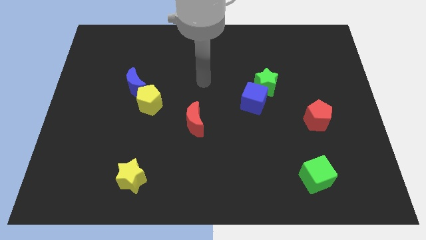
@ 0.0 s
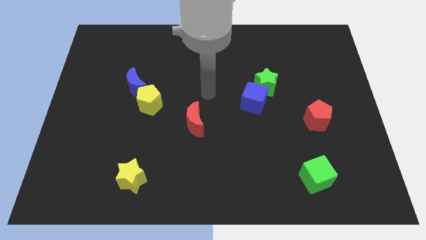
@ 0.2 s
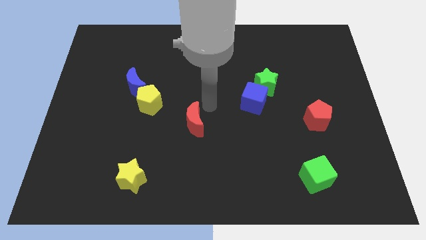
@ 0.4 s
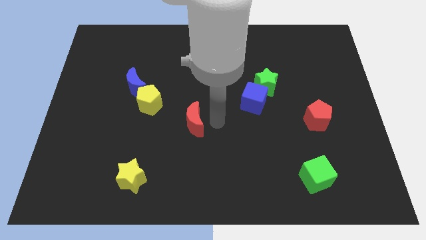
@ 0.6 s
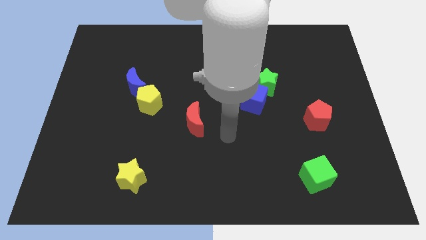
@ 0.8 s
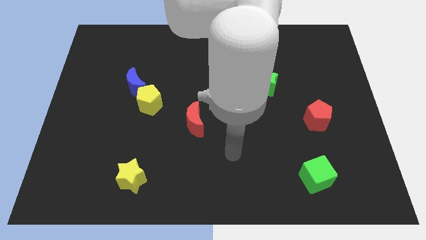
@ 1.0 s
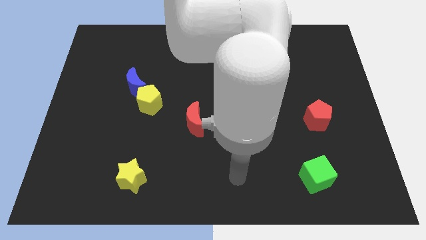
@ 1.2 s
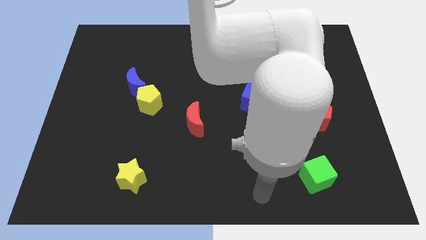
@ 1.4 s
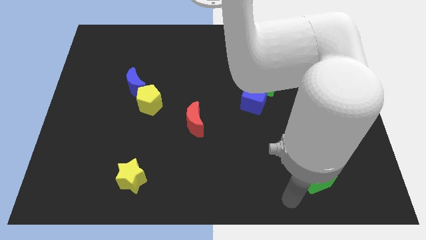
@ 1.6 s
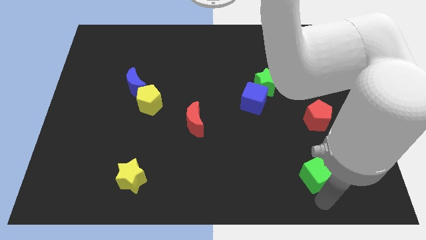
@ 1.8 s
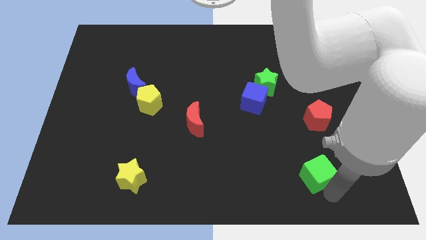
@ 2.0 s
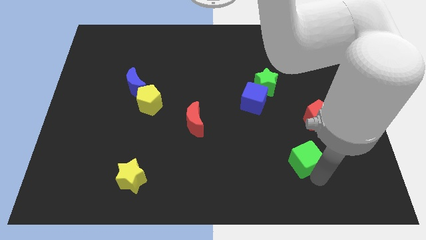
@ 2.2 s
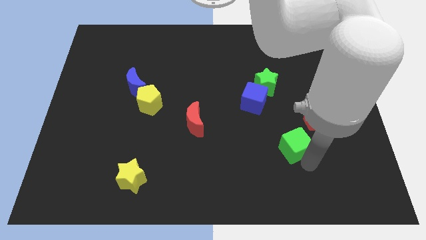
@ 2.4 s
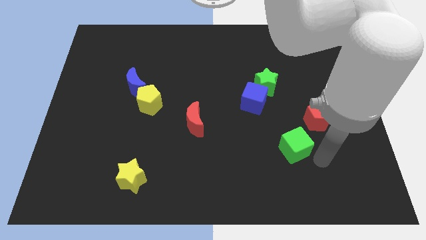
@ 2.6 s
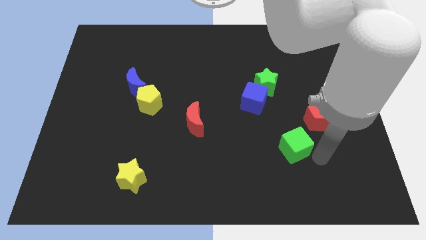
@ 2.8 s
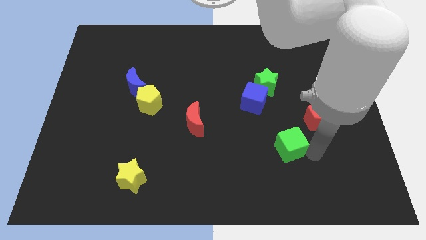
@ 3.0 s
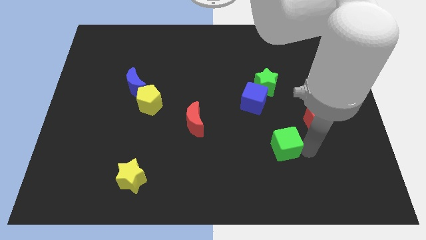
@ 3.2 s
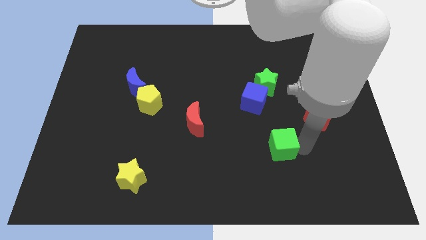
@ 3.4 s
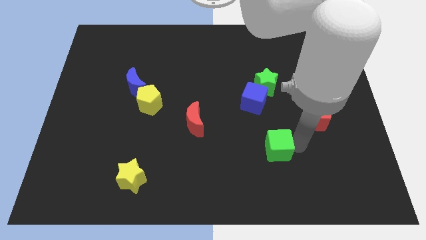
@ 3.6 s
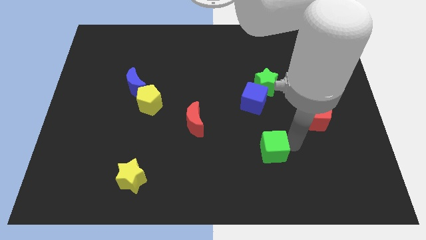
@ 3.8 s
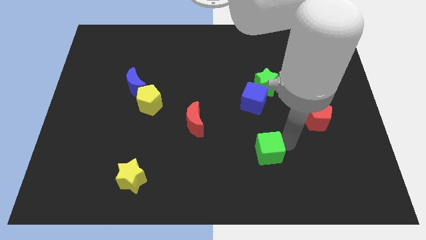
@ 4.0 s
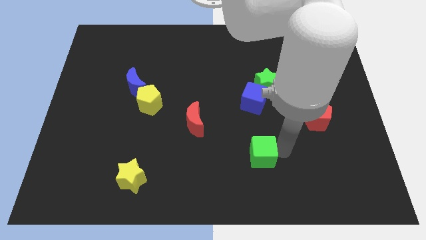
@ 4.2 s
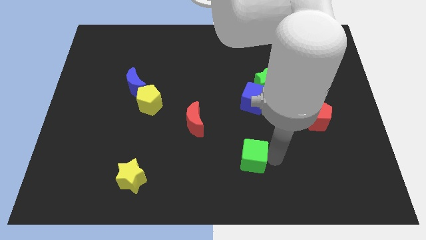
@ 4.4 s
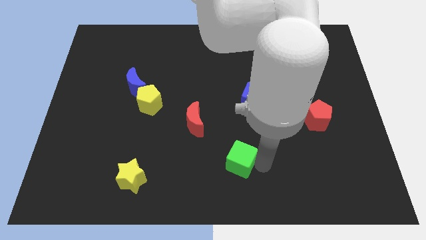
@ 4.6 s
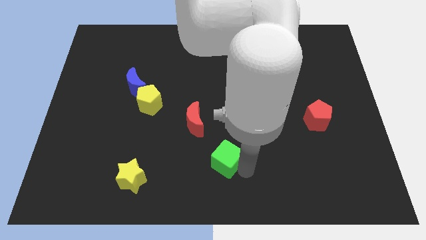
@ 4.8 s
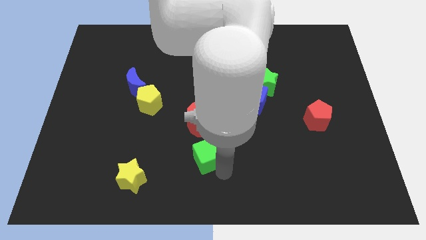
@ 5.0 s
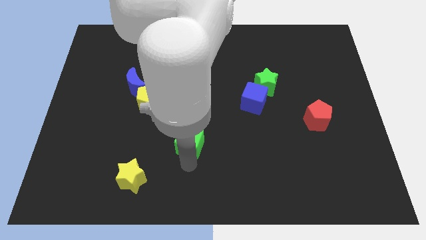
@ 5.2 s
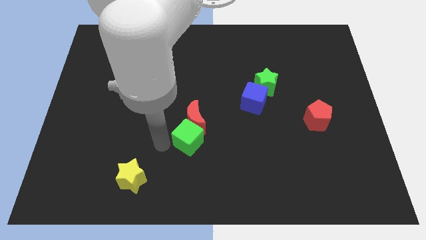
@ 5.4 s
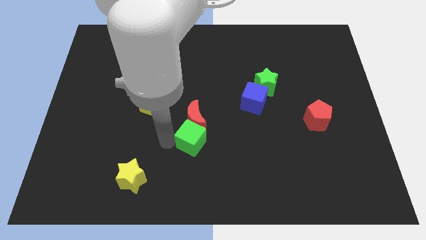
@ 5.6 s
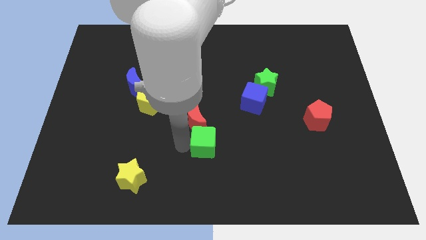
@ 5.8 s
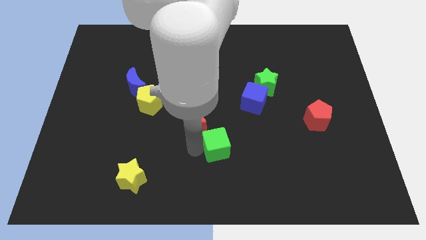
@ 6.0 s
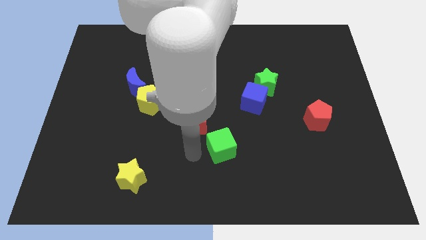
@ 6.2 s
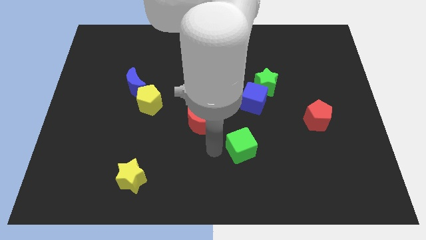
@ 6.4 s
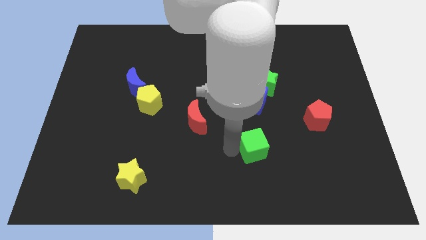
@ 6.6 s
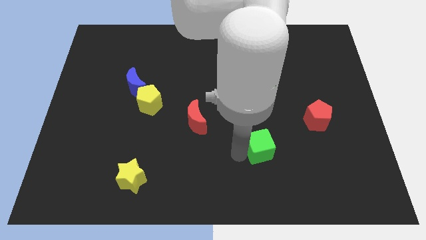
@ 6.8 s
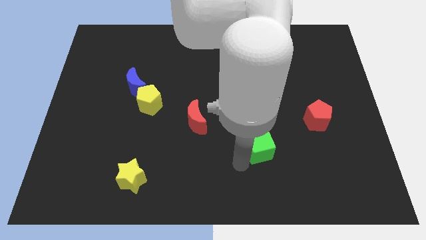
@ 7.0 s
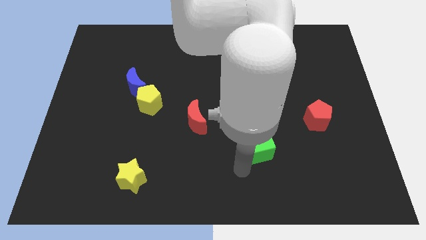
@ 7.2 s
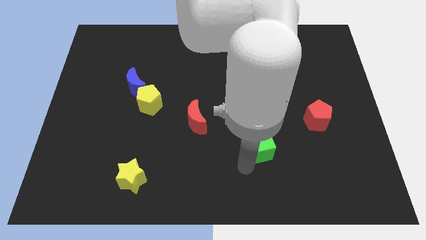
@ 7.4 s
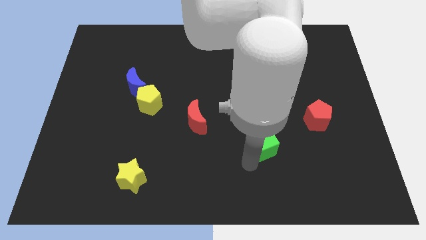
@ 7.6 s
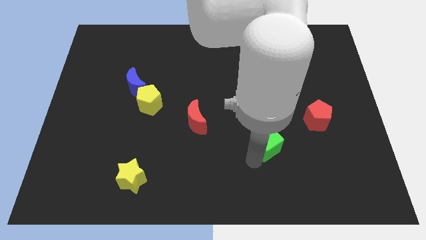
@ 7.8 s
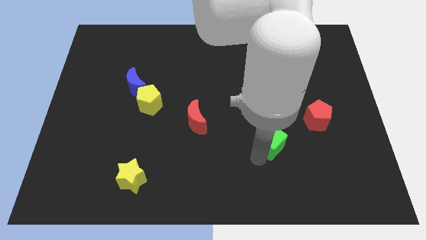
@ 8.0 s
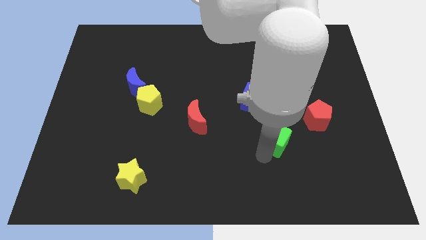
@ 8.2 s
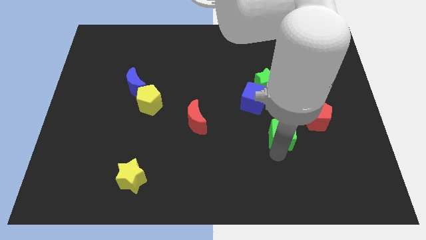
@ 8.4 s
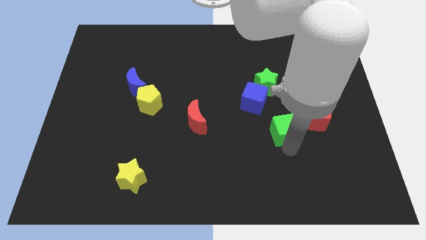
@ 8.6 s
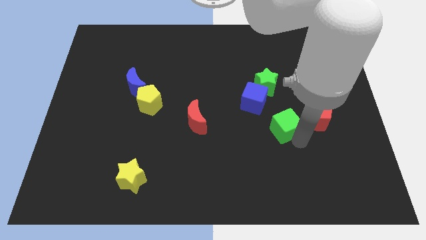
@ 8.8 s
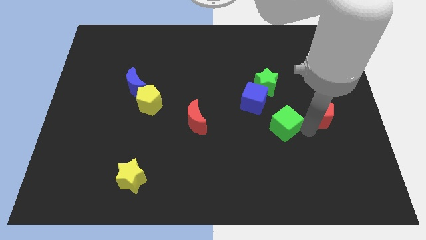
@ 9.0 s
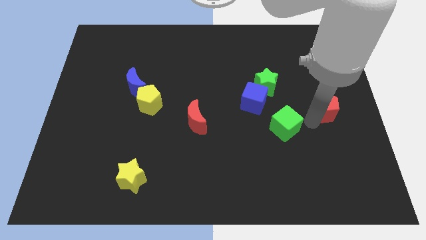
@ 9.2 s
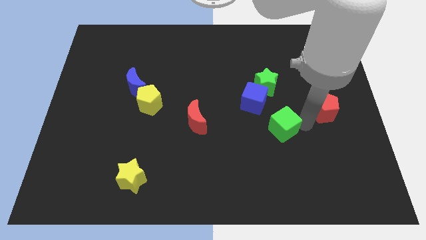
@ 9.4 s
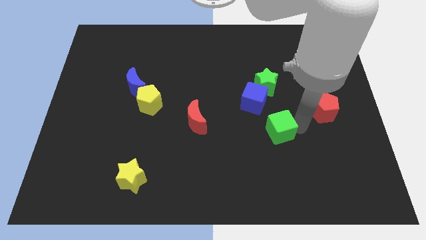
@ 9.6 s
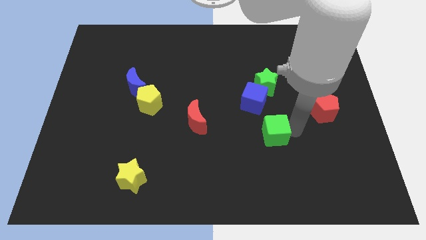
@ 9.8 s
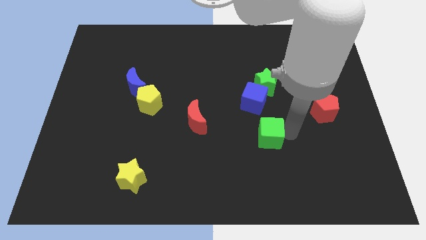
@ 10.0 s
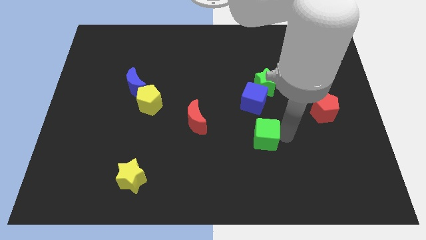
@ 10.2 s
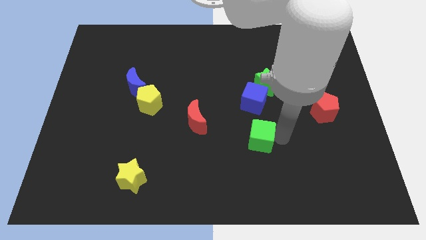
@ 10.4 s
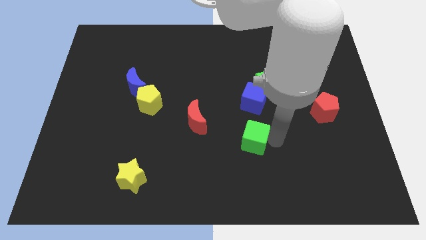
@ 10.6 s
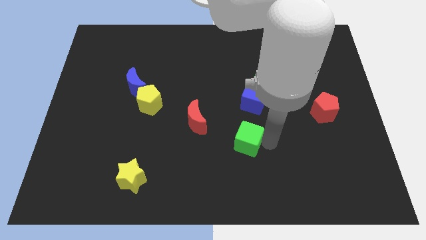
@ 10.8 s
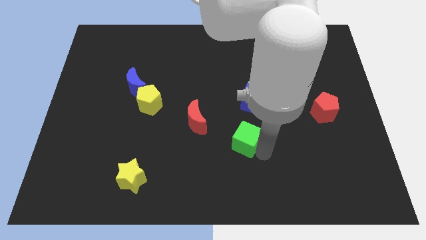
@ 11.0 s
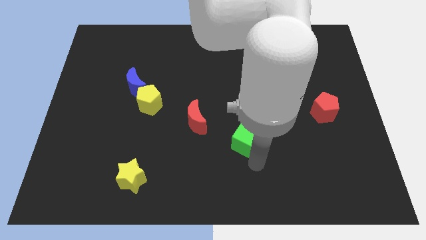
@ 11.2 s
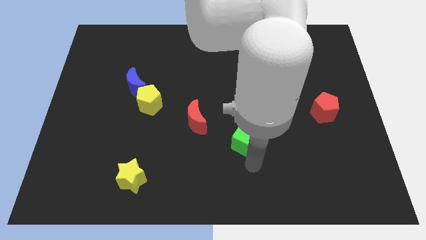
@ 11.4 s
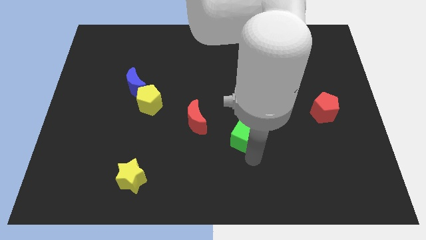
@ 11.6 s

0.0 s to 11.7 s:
put the green cube right of the red moon

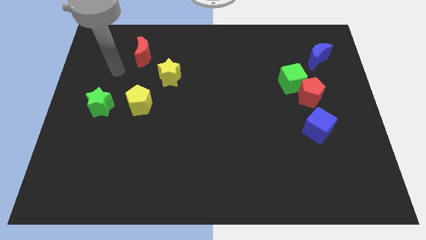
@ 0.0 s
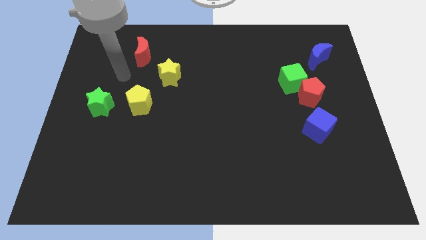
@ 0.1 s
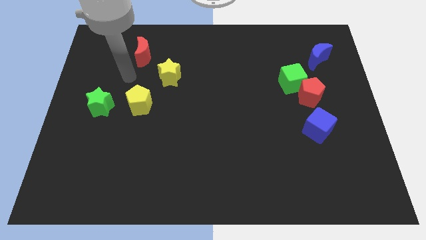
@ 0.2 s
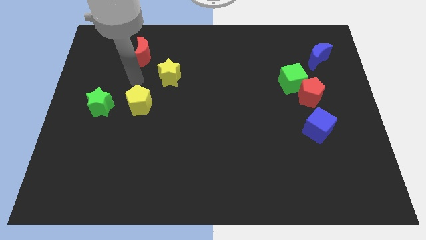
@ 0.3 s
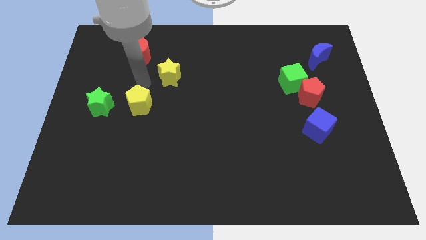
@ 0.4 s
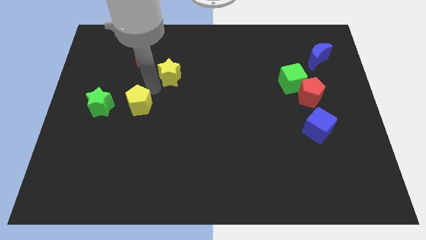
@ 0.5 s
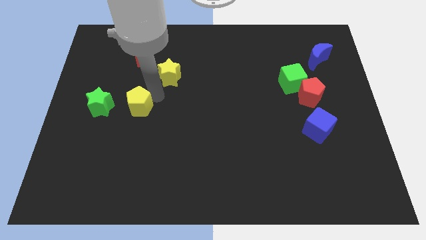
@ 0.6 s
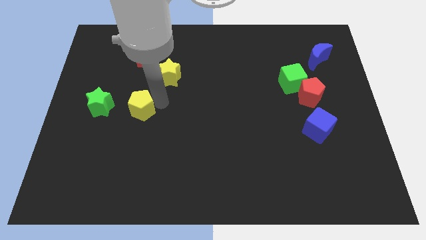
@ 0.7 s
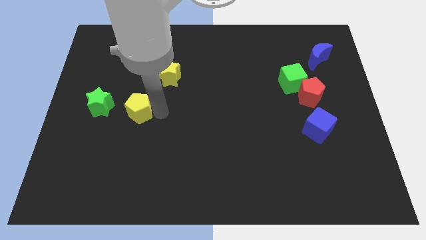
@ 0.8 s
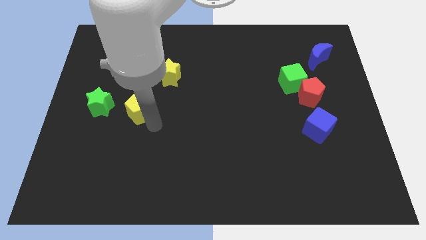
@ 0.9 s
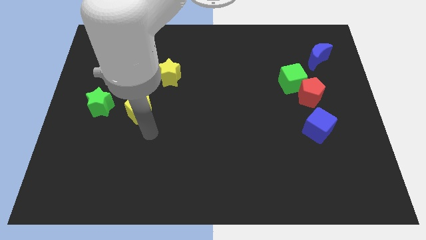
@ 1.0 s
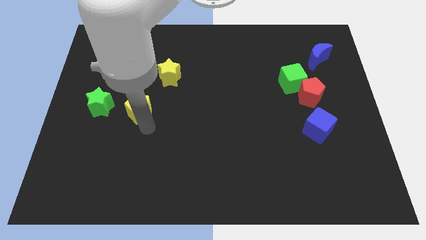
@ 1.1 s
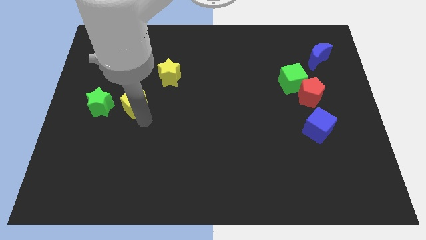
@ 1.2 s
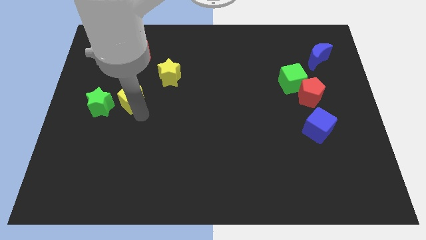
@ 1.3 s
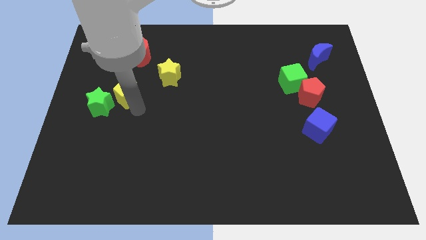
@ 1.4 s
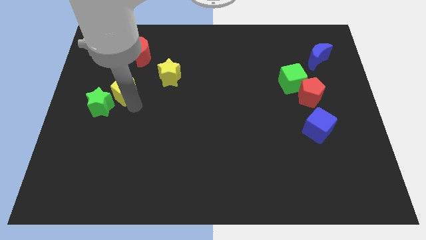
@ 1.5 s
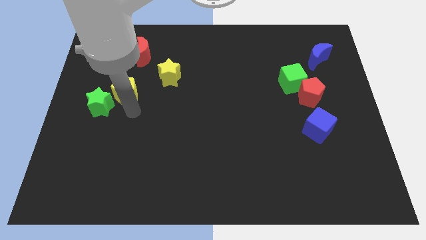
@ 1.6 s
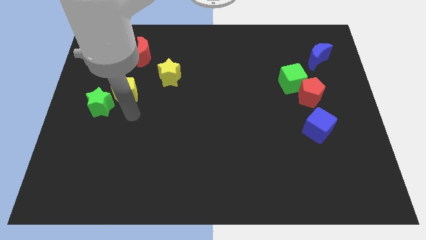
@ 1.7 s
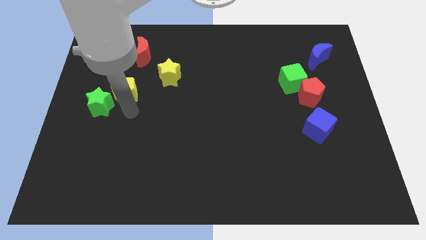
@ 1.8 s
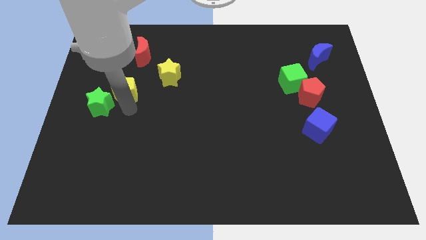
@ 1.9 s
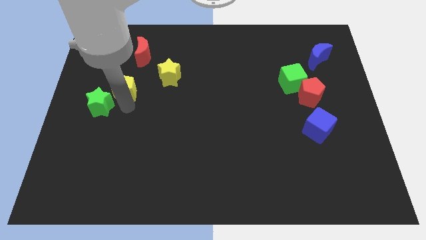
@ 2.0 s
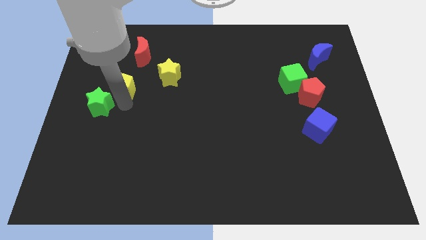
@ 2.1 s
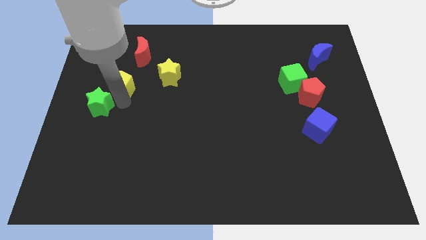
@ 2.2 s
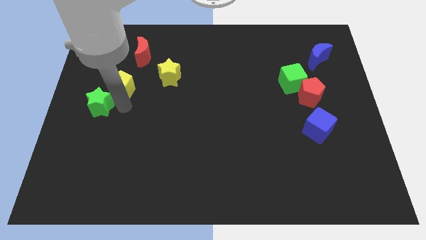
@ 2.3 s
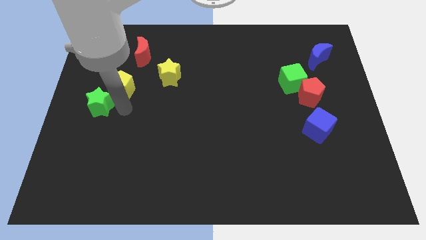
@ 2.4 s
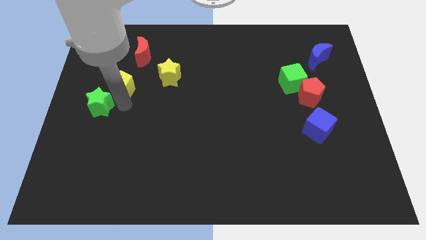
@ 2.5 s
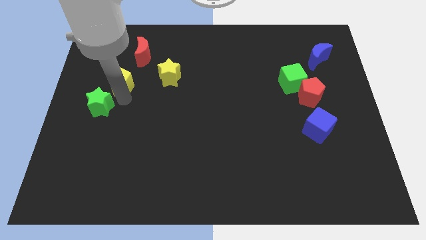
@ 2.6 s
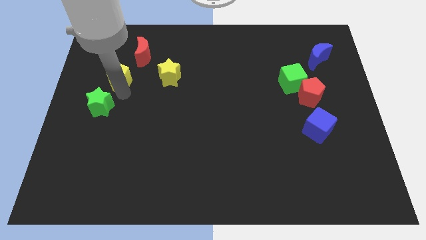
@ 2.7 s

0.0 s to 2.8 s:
slide the yellow pentagon diagonally down and to the left of the red moon
